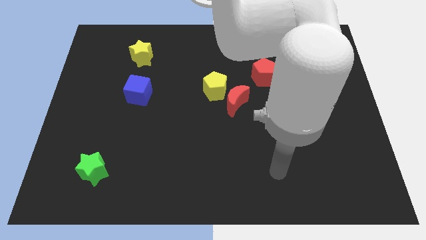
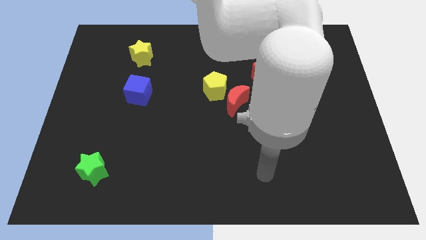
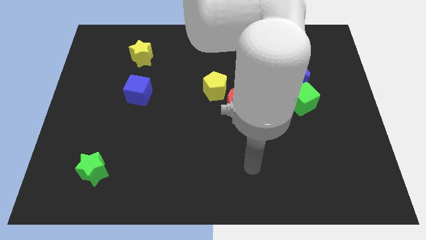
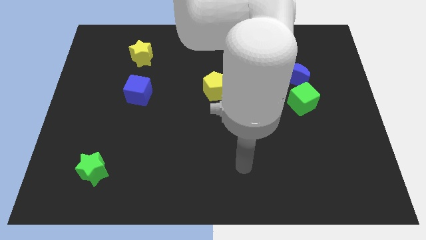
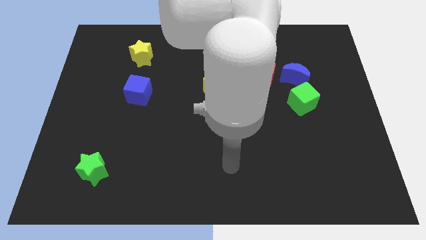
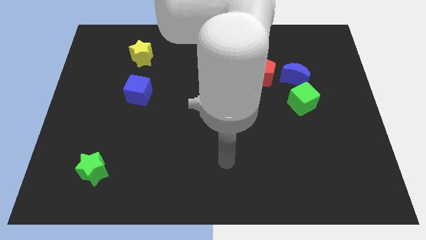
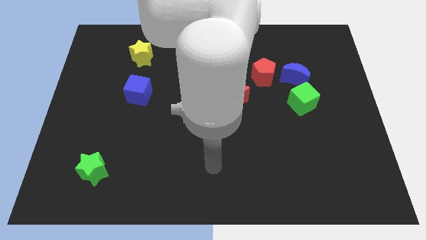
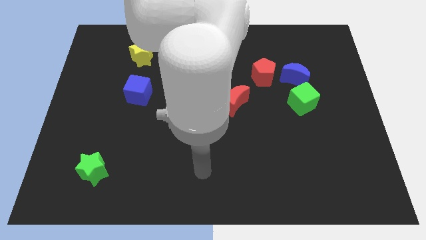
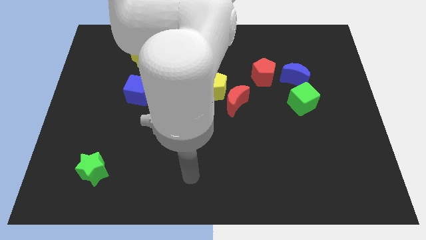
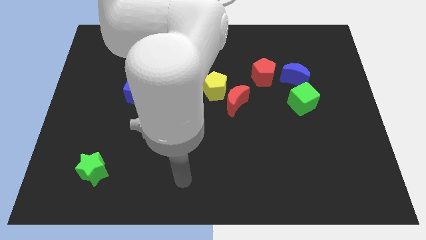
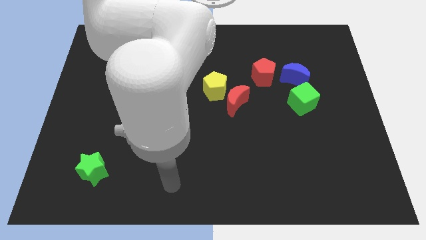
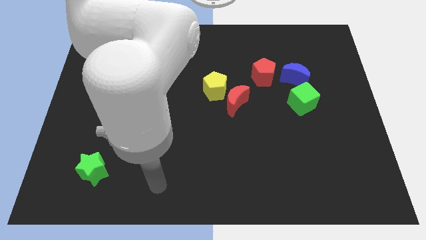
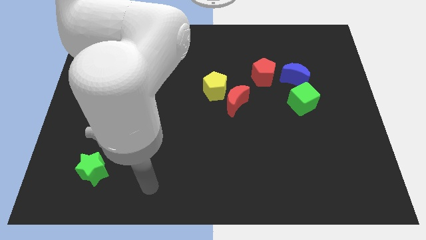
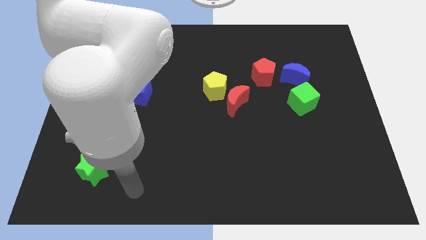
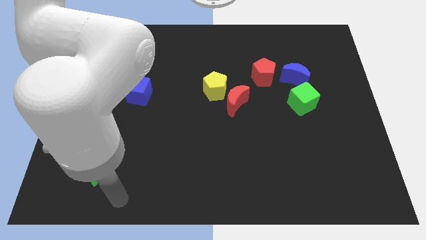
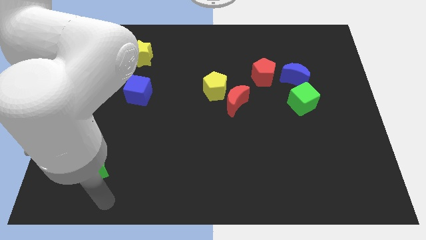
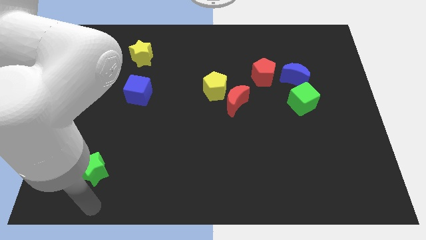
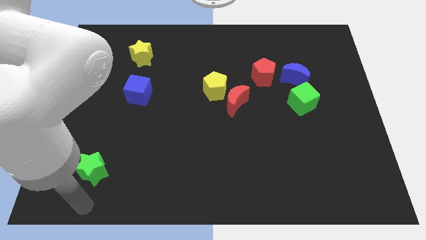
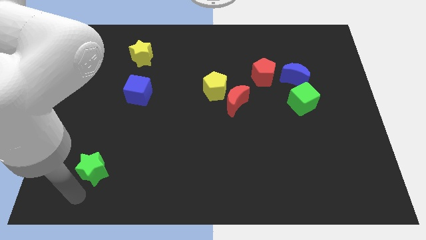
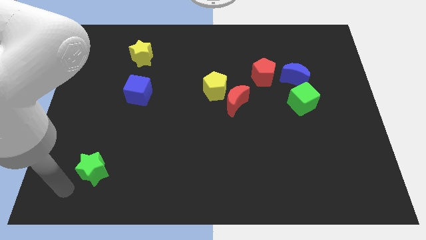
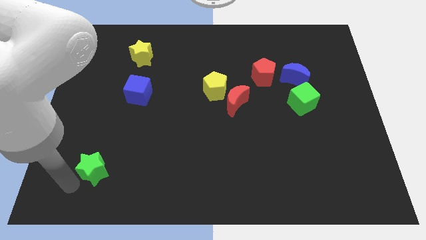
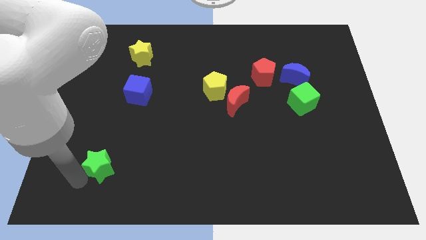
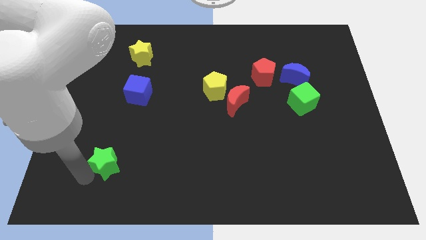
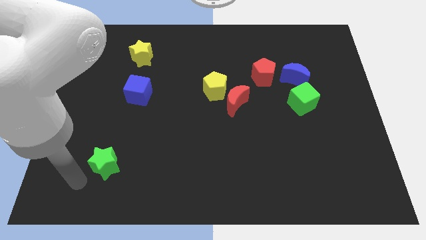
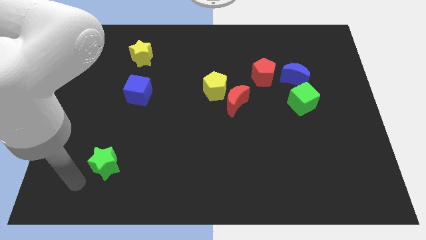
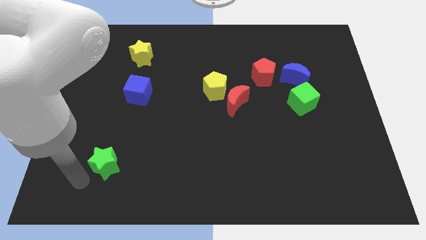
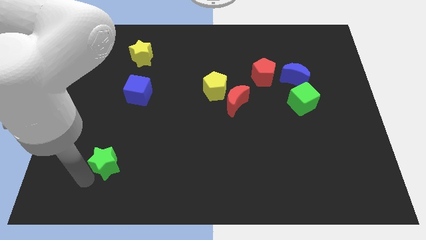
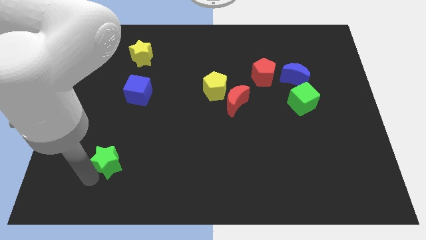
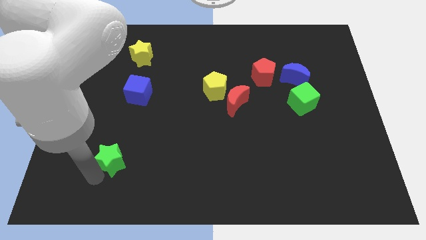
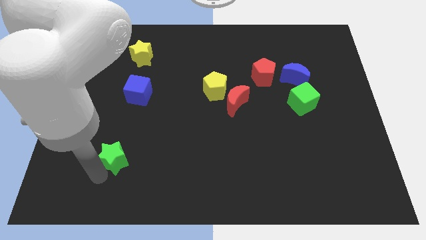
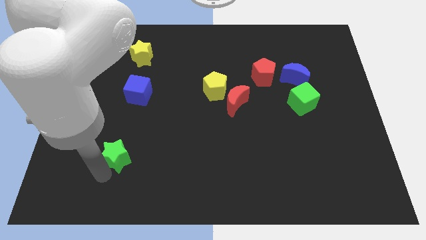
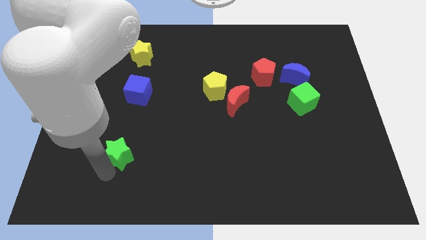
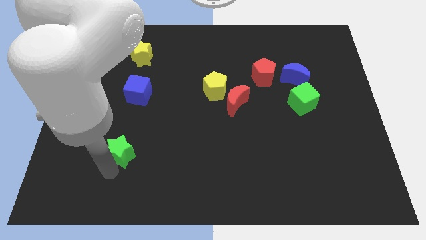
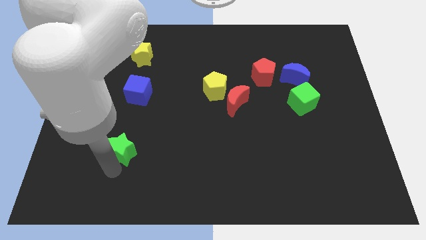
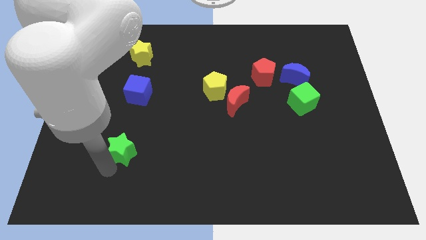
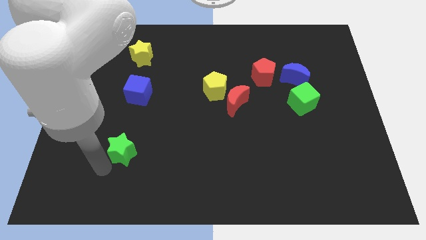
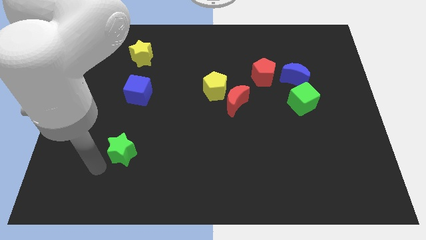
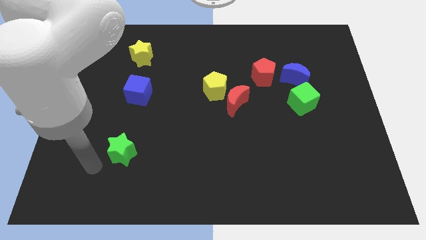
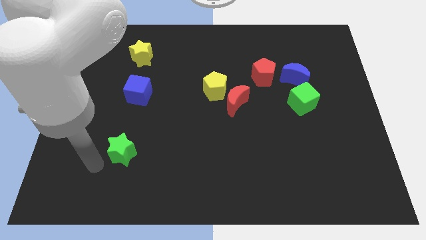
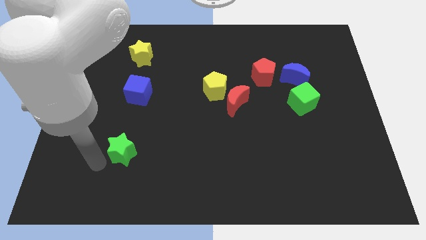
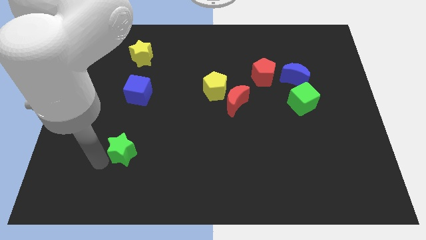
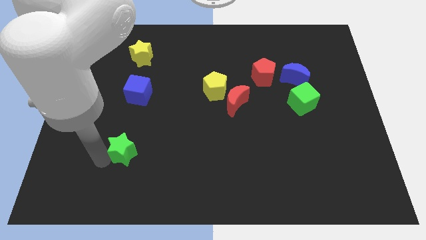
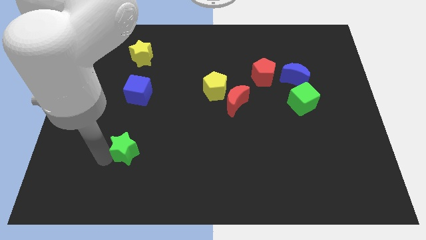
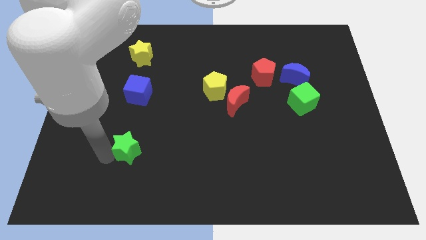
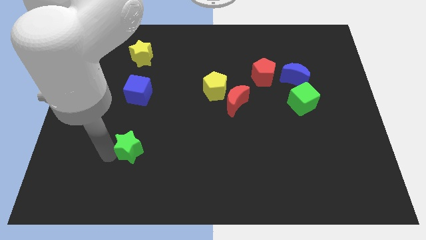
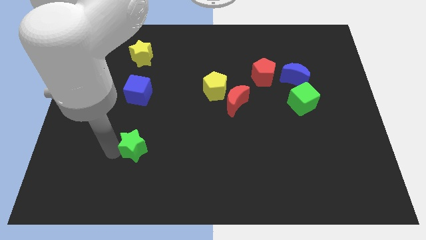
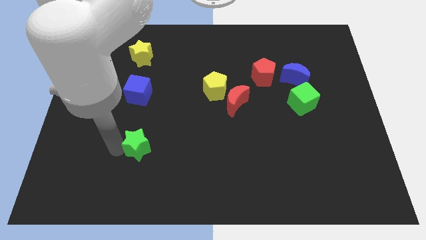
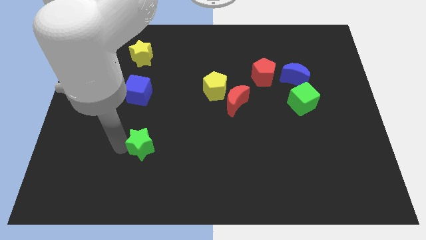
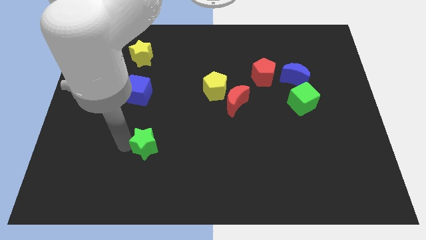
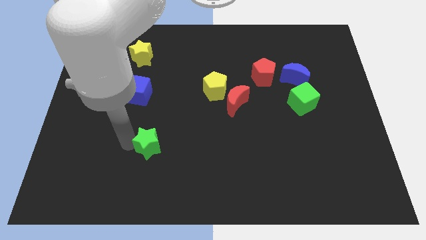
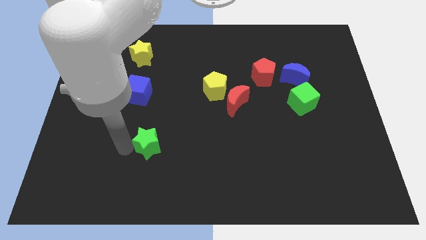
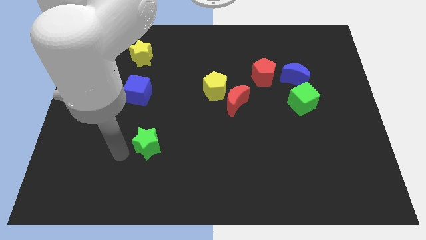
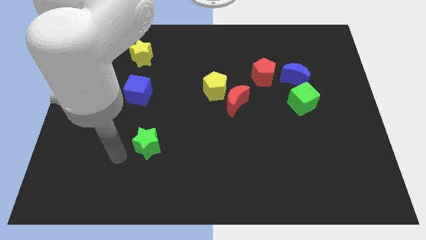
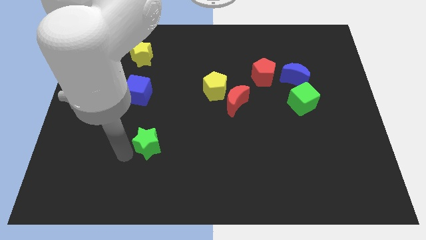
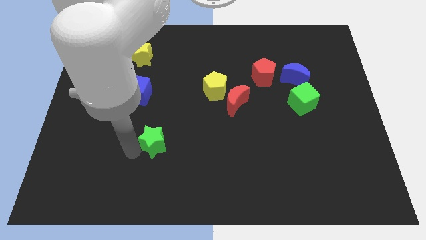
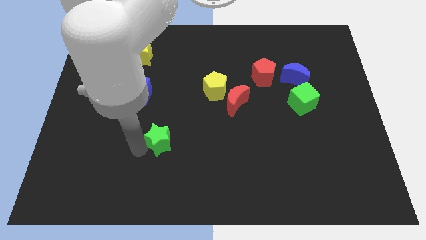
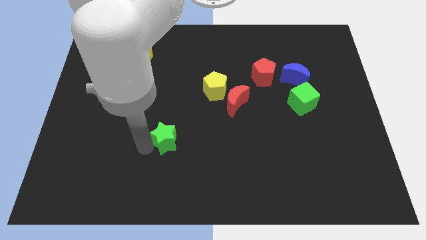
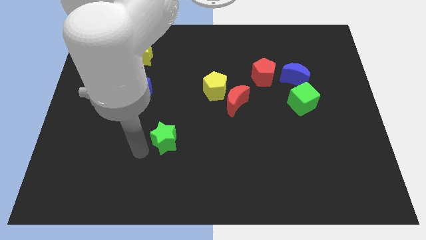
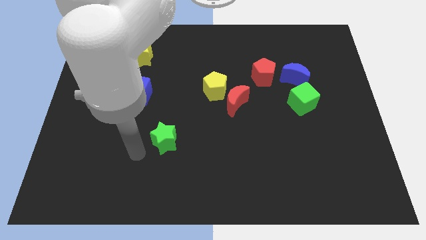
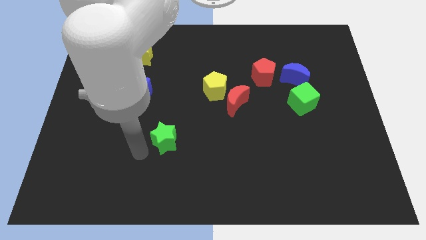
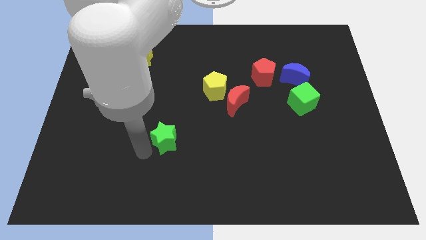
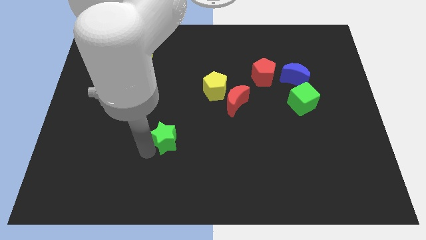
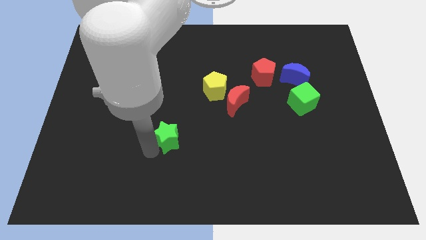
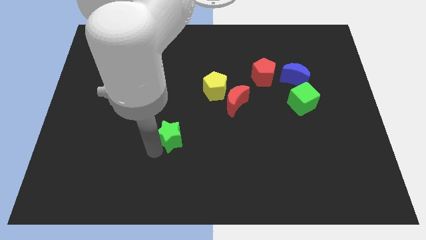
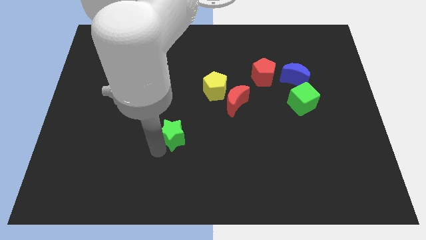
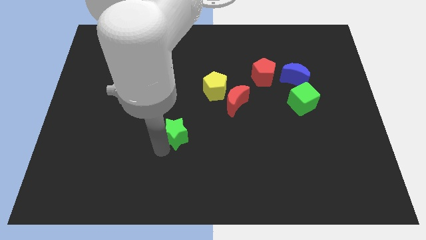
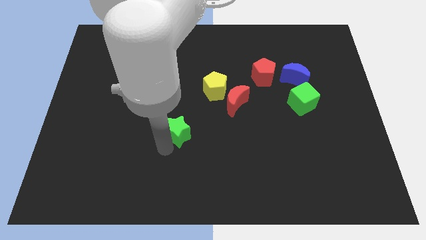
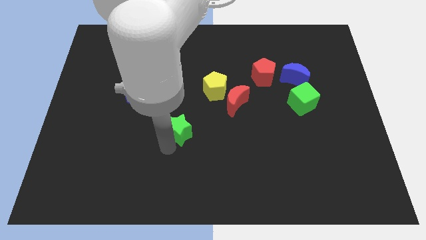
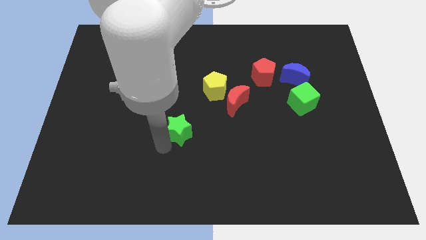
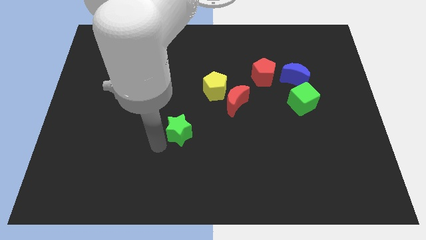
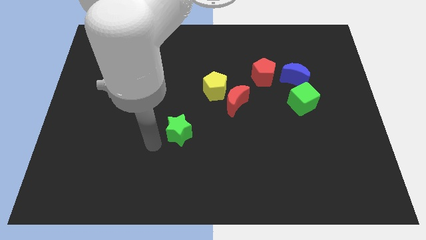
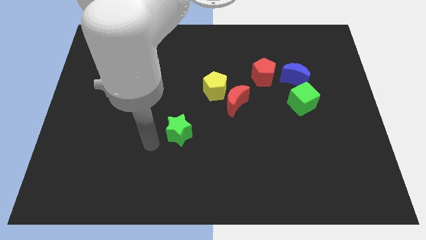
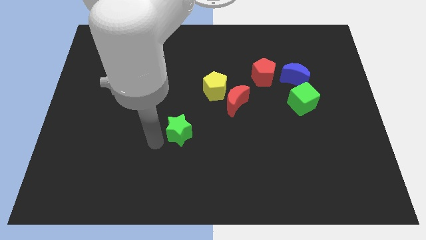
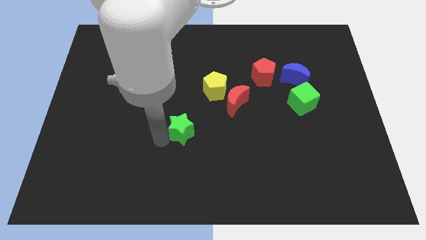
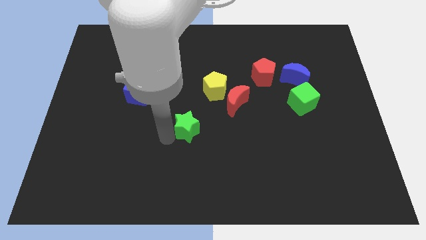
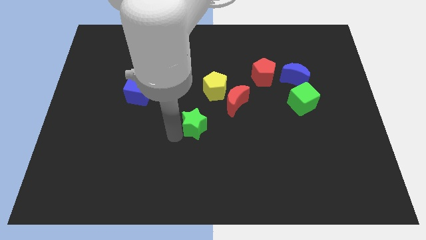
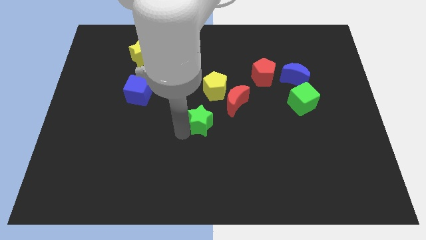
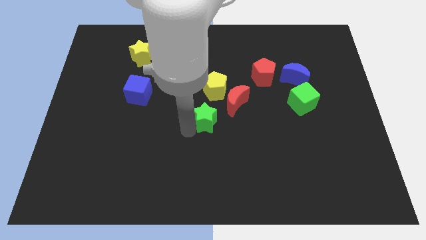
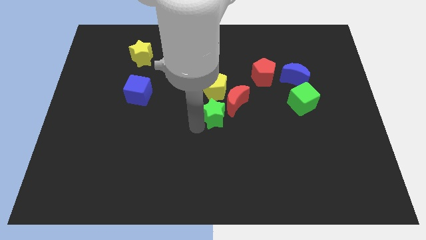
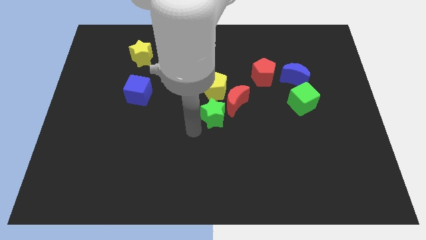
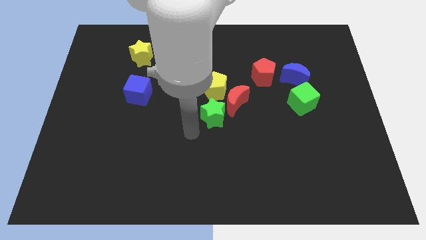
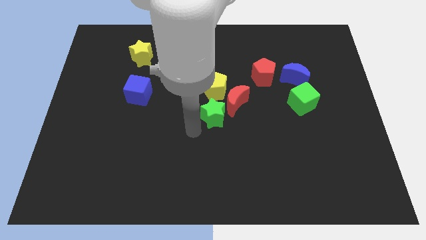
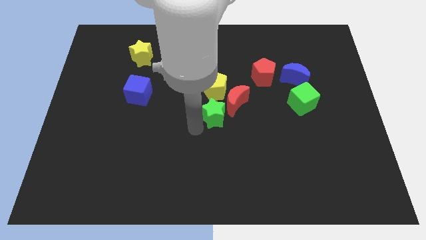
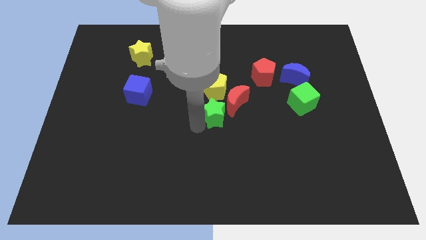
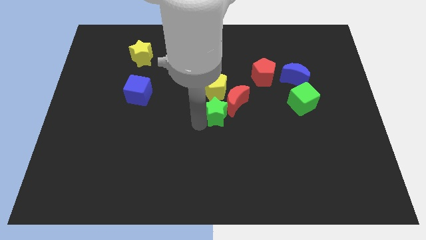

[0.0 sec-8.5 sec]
put the green star towards the red moon

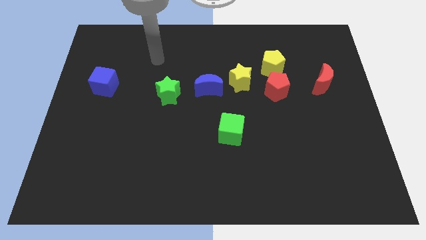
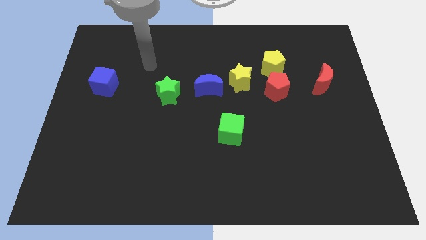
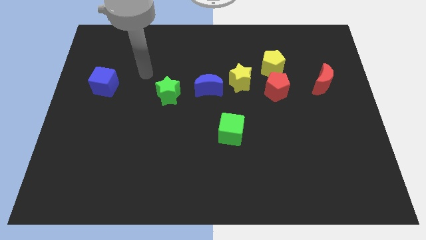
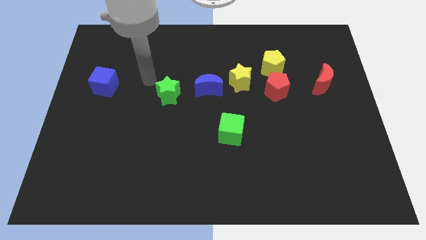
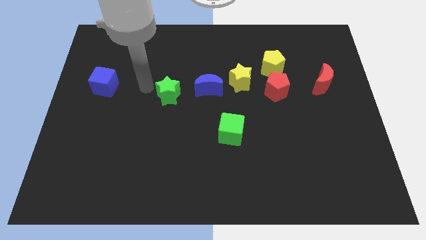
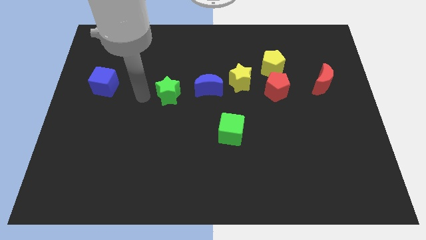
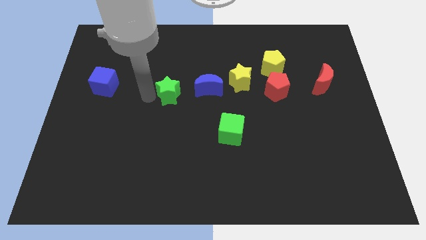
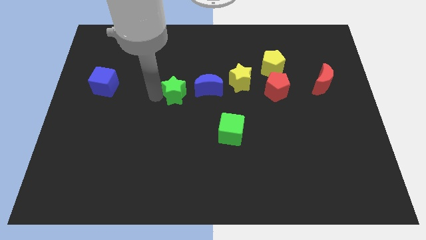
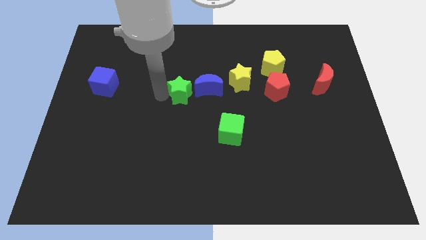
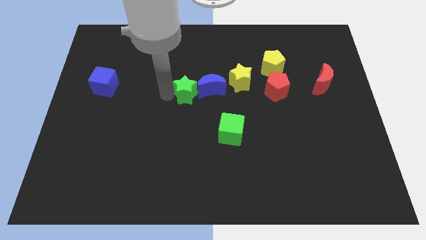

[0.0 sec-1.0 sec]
move the green star towards the blue moon
